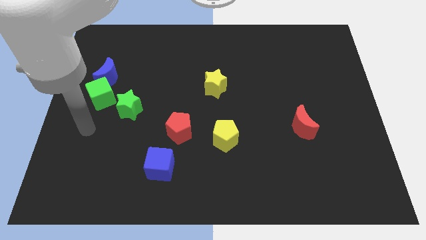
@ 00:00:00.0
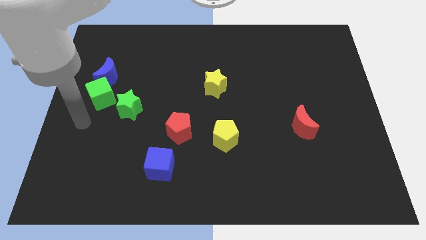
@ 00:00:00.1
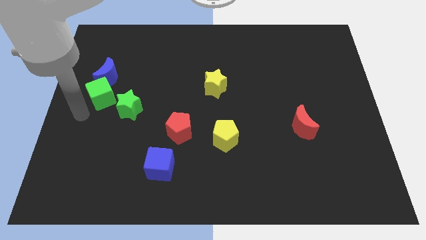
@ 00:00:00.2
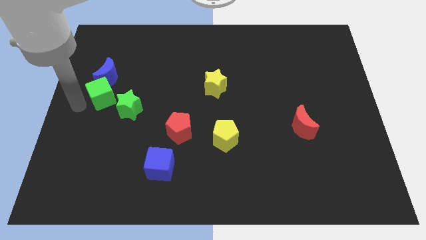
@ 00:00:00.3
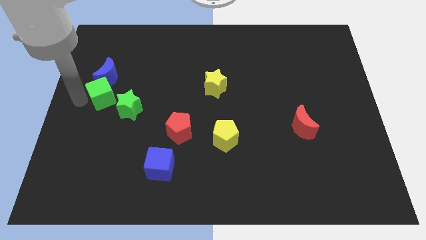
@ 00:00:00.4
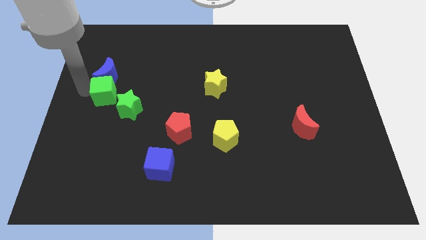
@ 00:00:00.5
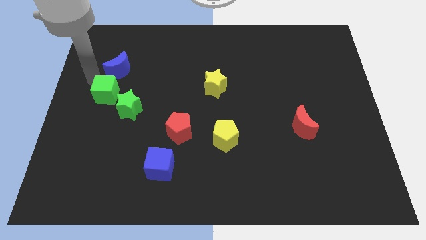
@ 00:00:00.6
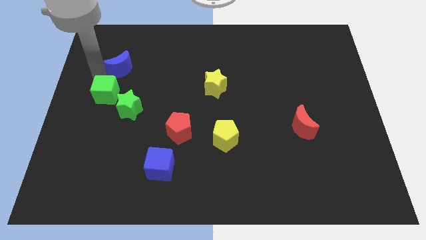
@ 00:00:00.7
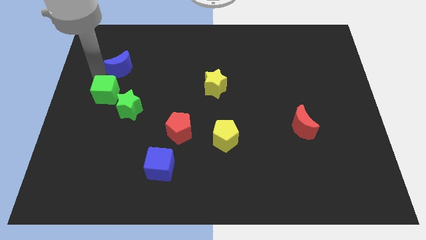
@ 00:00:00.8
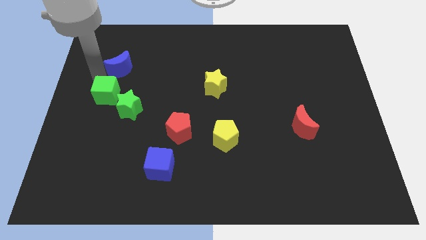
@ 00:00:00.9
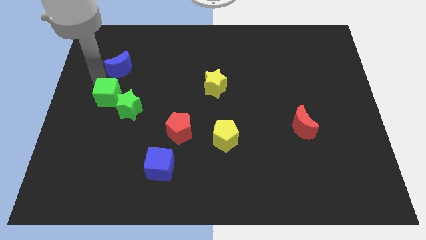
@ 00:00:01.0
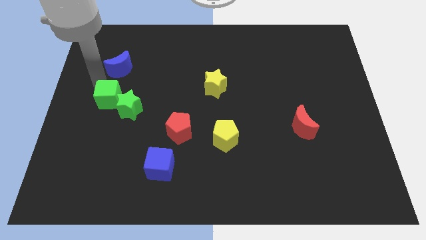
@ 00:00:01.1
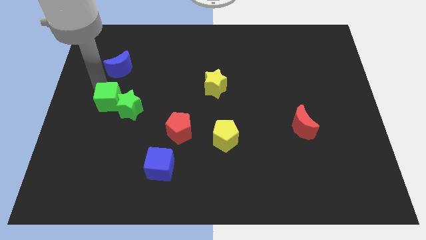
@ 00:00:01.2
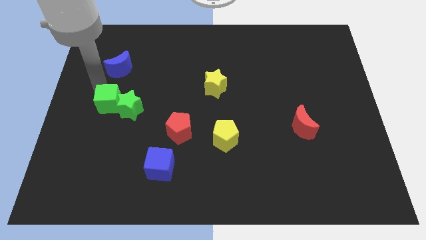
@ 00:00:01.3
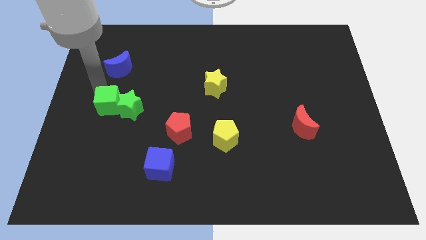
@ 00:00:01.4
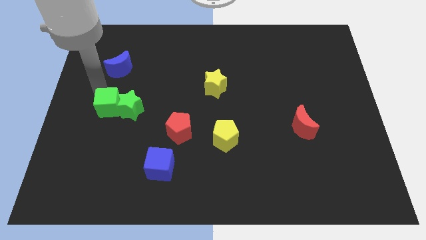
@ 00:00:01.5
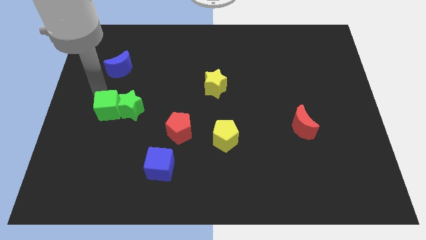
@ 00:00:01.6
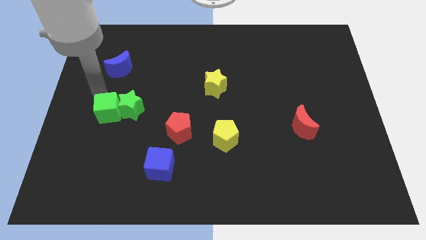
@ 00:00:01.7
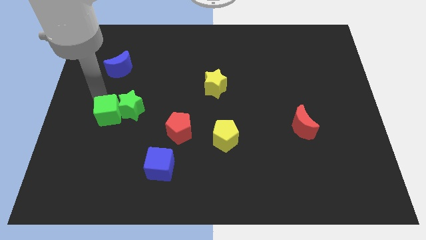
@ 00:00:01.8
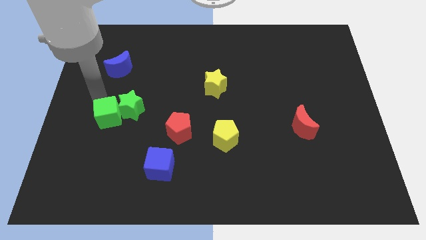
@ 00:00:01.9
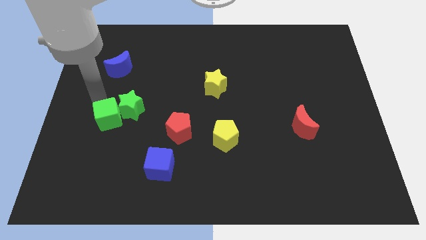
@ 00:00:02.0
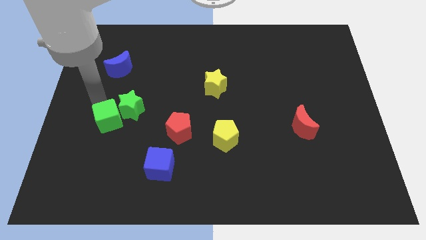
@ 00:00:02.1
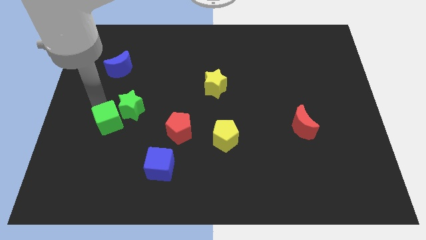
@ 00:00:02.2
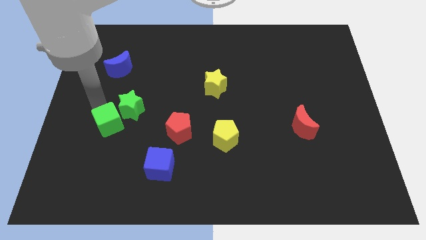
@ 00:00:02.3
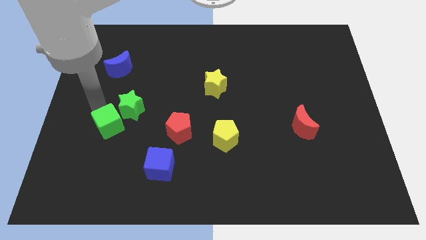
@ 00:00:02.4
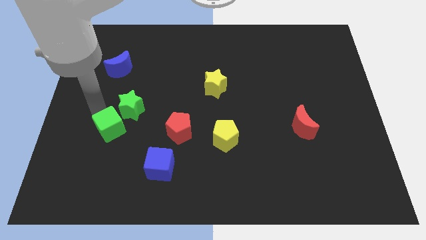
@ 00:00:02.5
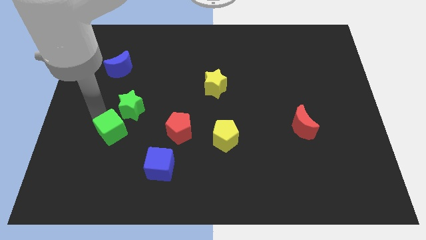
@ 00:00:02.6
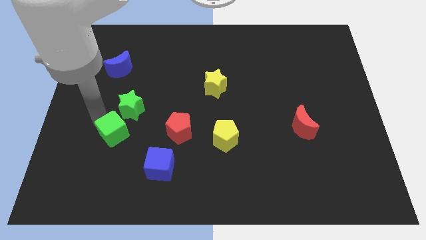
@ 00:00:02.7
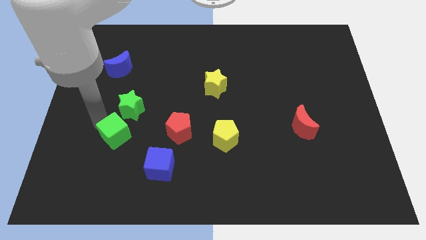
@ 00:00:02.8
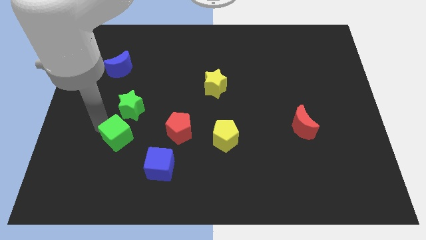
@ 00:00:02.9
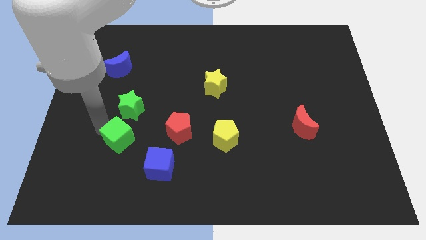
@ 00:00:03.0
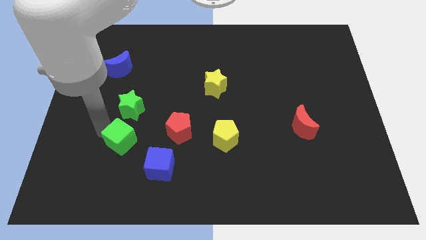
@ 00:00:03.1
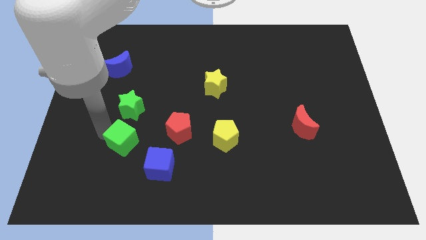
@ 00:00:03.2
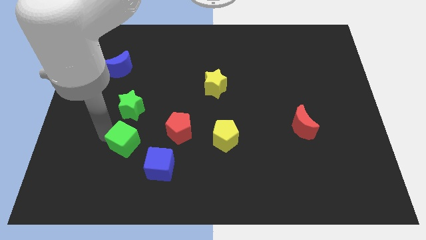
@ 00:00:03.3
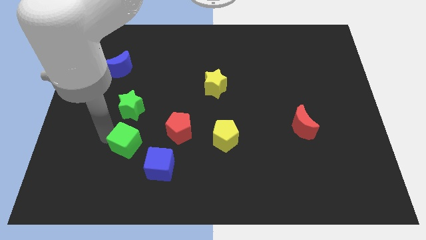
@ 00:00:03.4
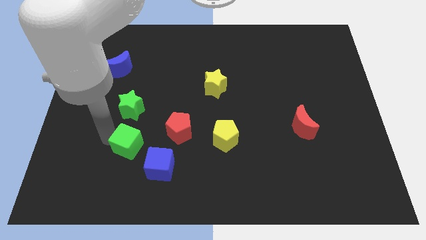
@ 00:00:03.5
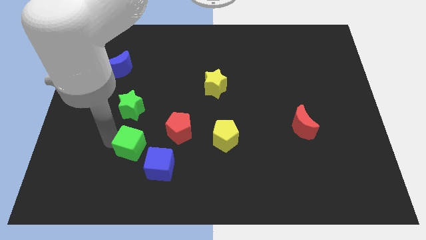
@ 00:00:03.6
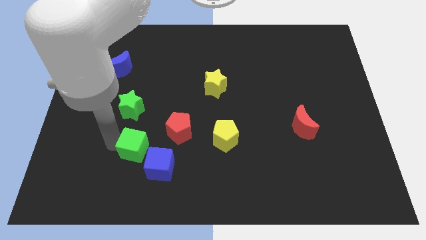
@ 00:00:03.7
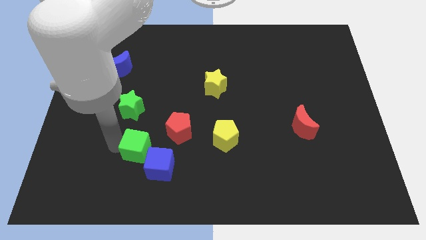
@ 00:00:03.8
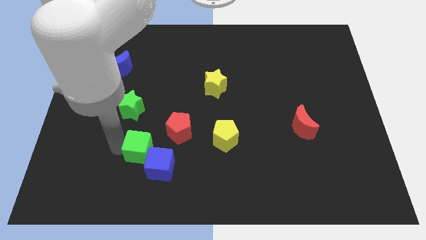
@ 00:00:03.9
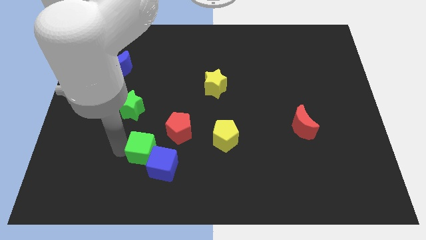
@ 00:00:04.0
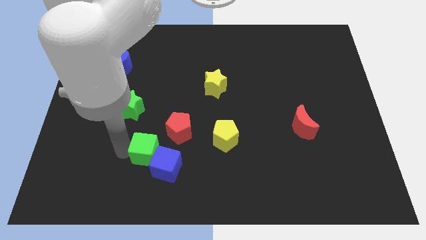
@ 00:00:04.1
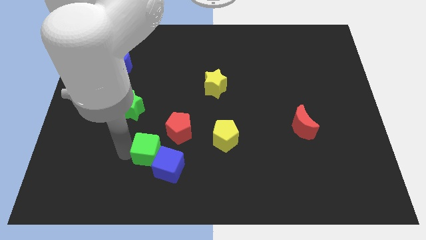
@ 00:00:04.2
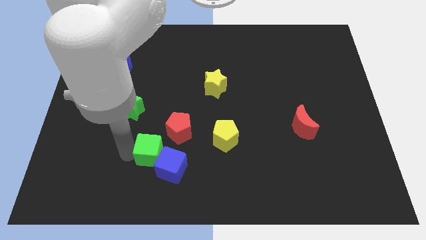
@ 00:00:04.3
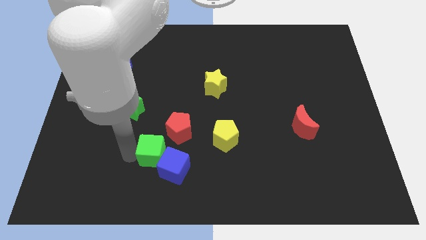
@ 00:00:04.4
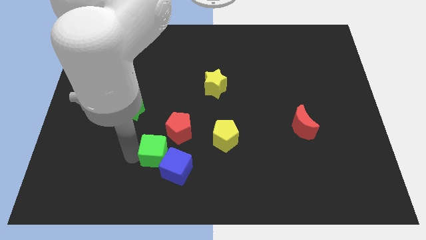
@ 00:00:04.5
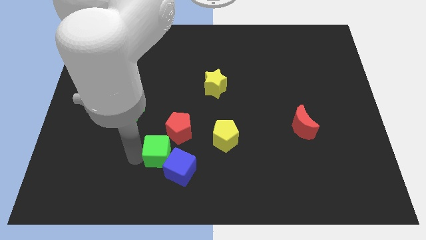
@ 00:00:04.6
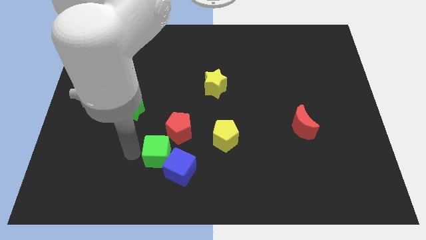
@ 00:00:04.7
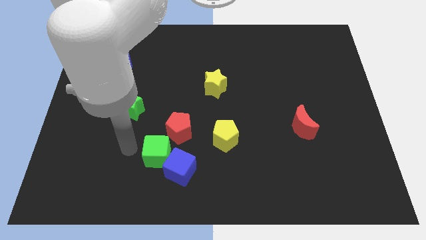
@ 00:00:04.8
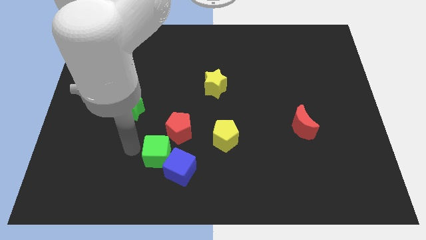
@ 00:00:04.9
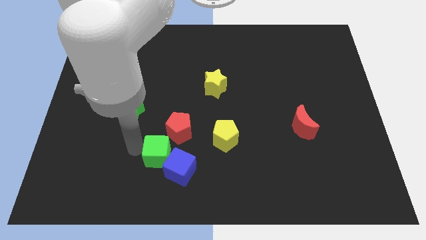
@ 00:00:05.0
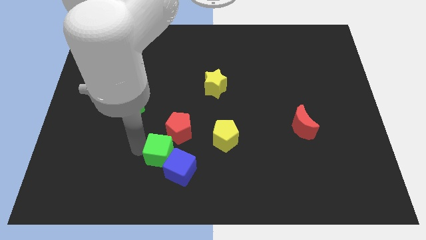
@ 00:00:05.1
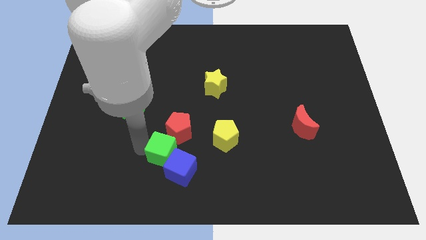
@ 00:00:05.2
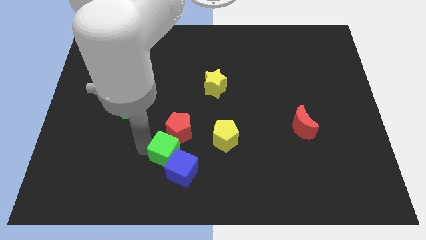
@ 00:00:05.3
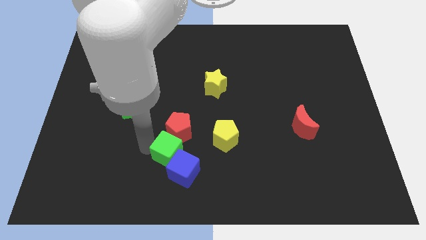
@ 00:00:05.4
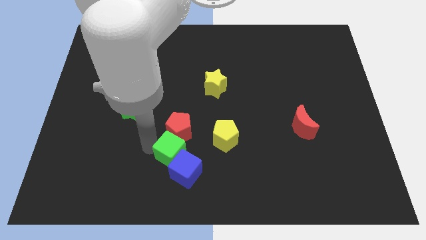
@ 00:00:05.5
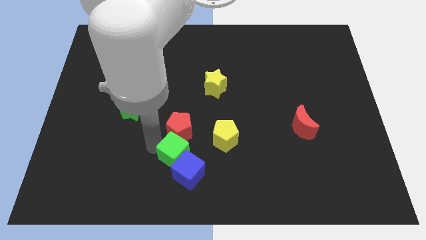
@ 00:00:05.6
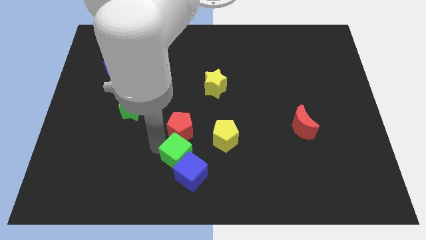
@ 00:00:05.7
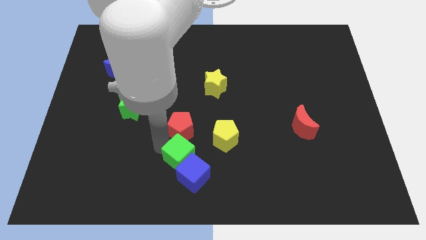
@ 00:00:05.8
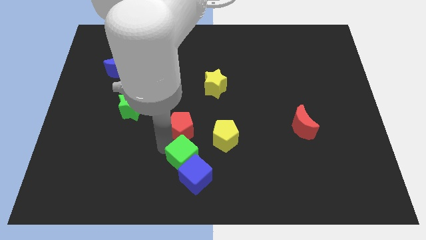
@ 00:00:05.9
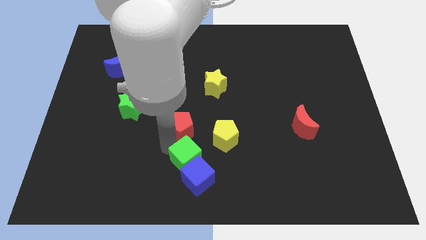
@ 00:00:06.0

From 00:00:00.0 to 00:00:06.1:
slide the green cube to the bottom
